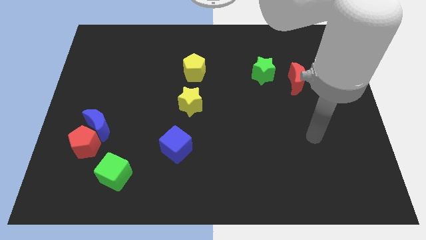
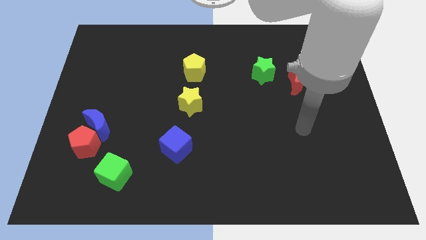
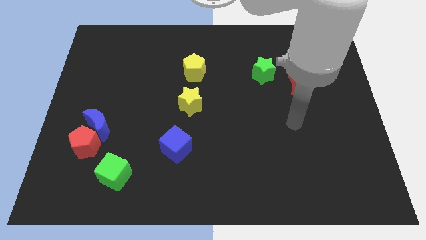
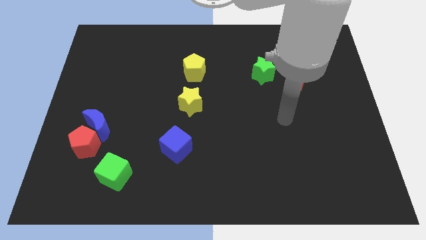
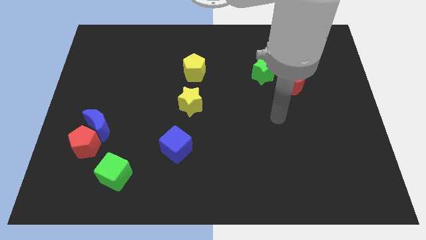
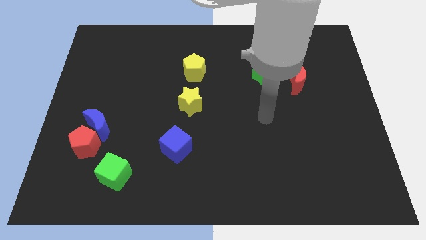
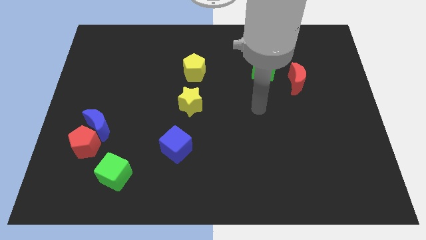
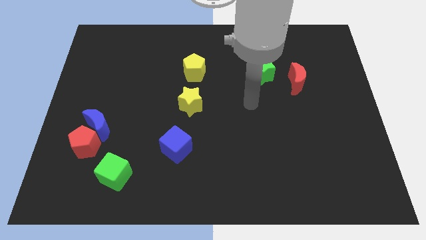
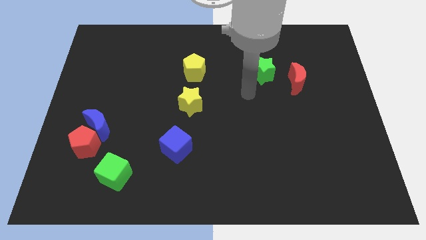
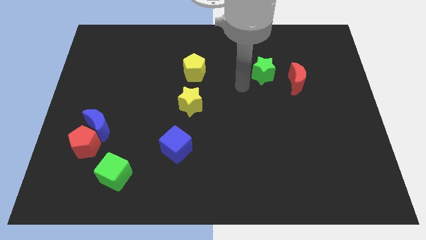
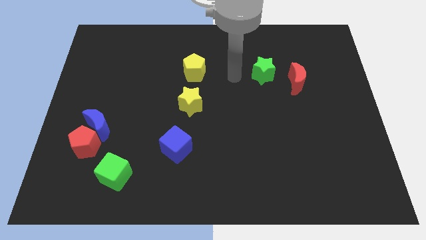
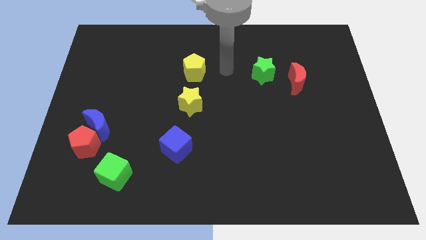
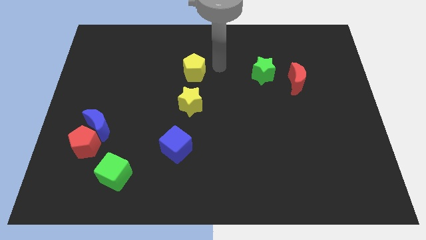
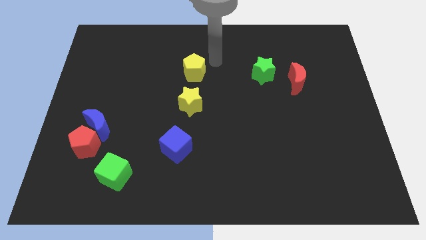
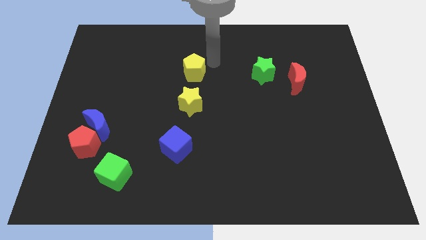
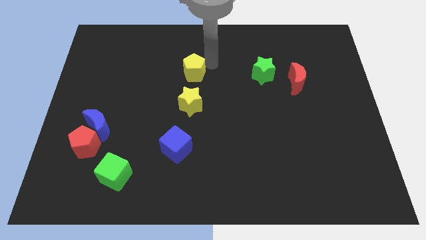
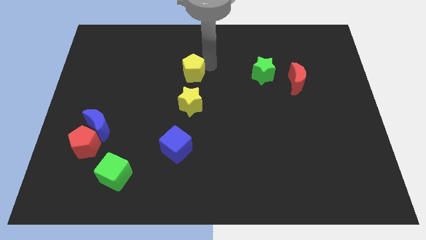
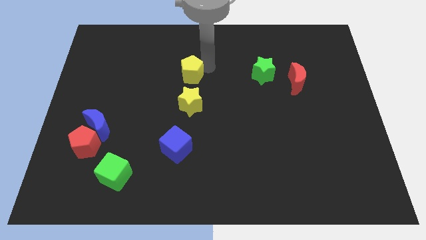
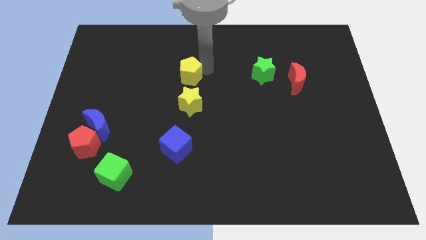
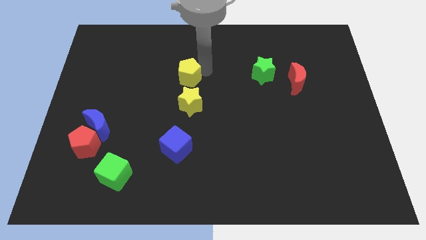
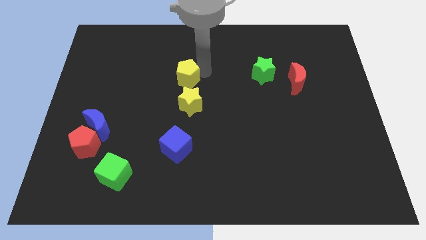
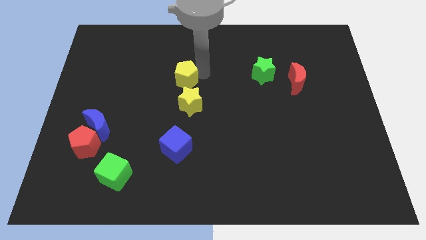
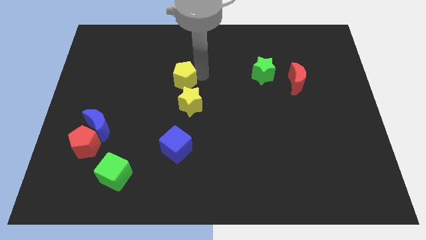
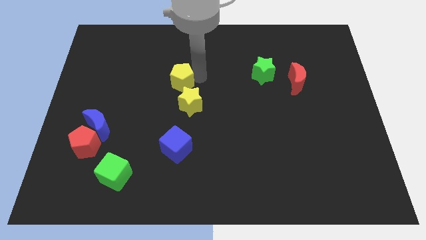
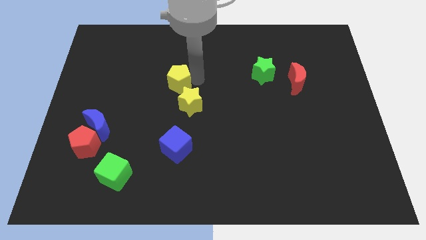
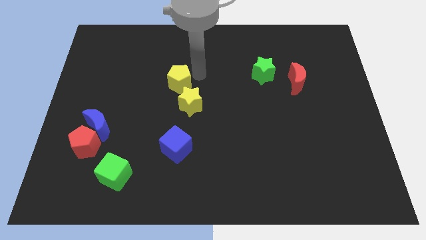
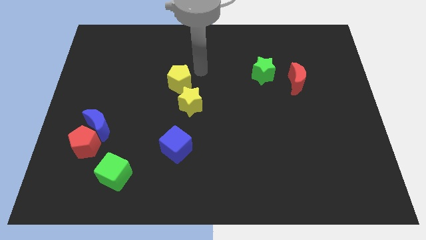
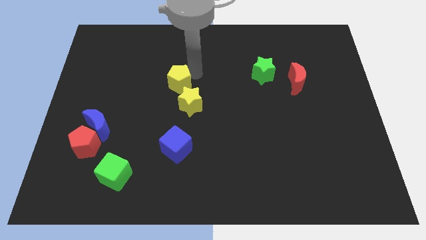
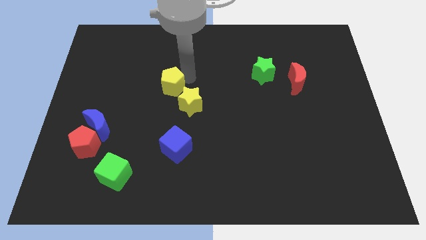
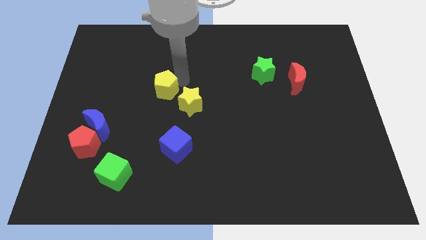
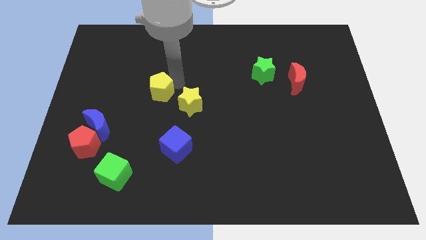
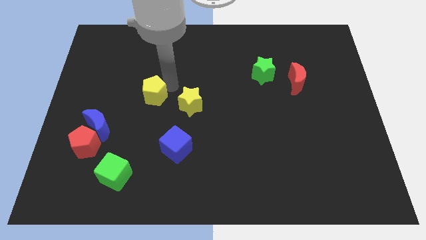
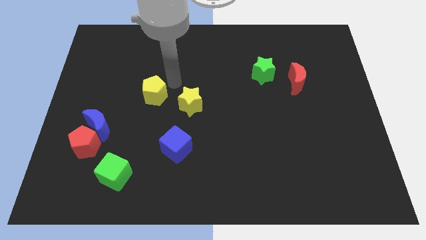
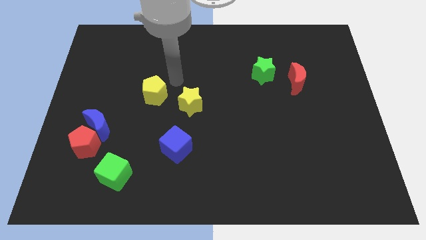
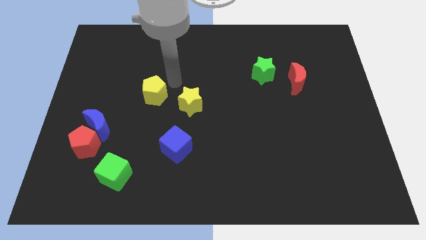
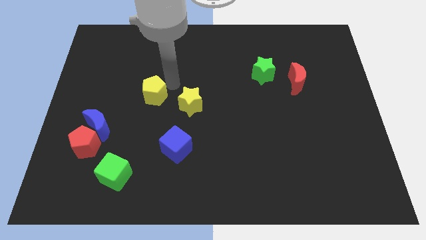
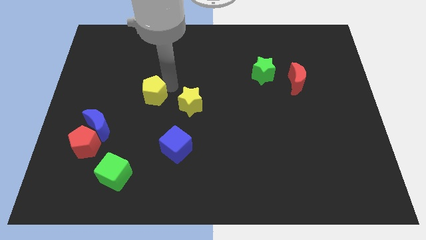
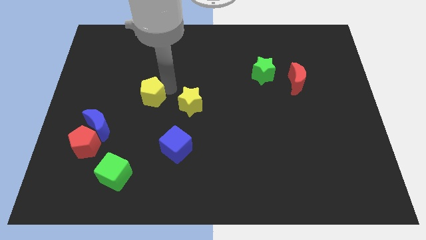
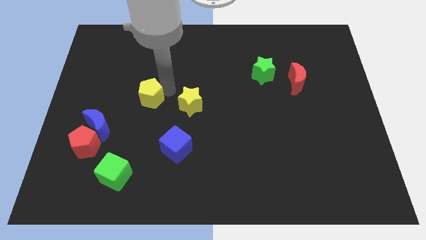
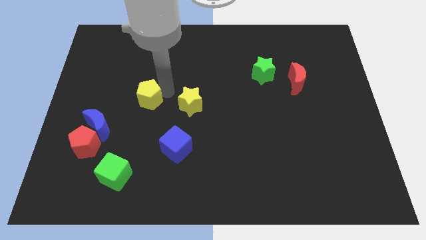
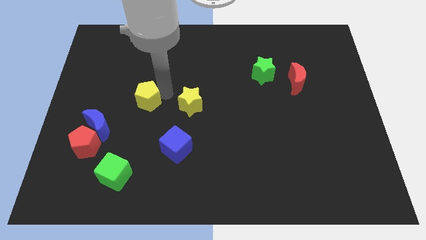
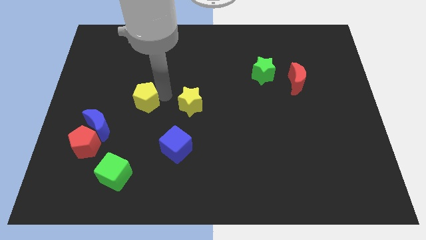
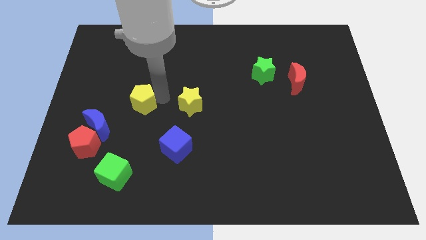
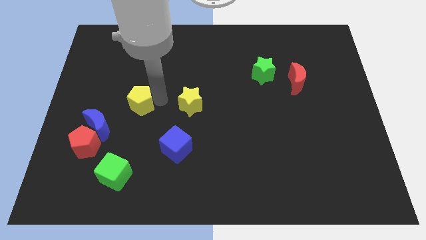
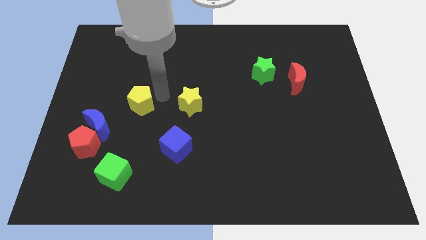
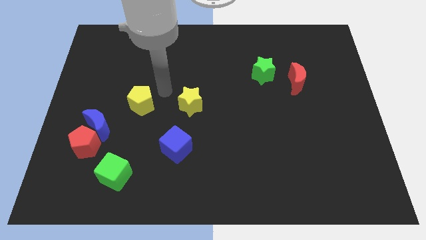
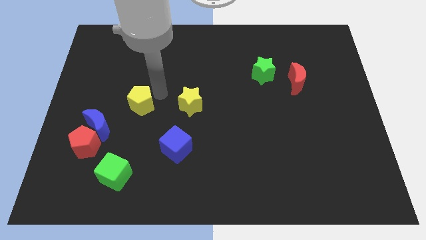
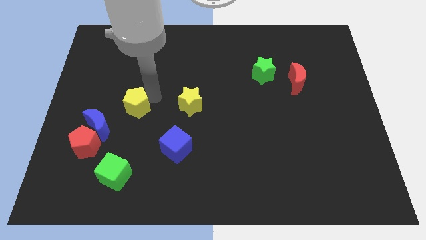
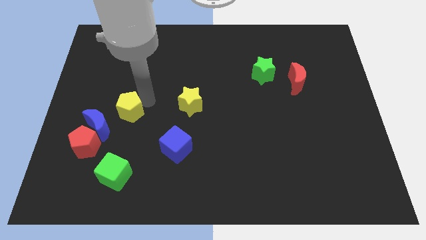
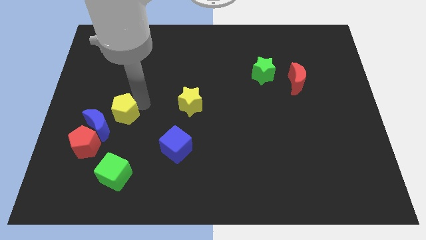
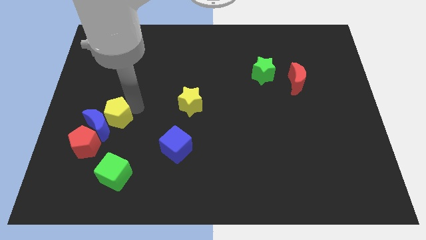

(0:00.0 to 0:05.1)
push the yellow pentagon close to the blue moon

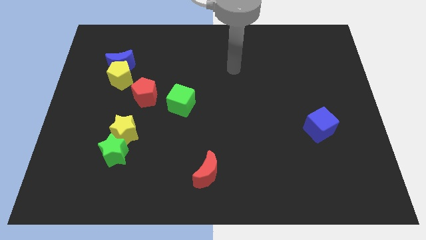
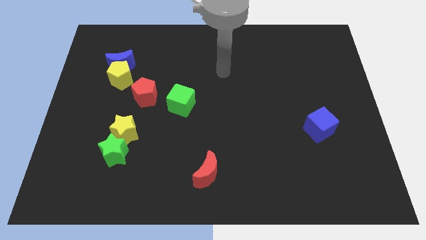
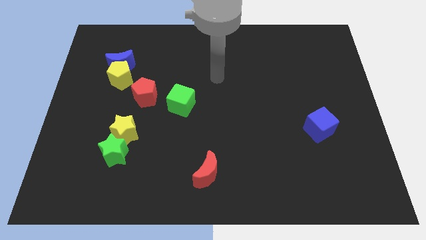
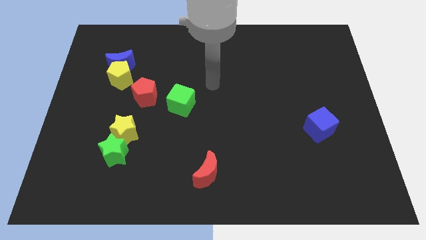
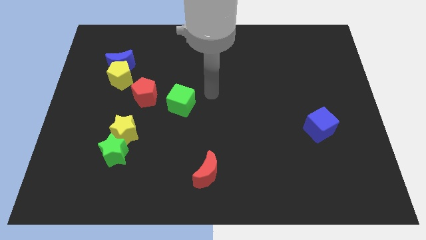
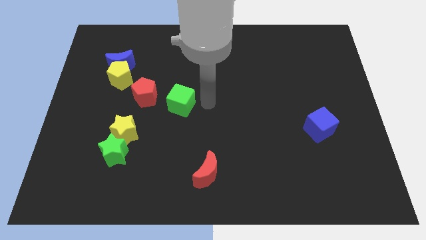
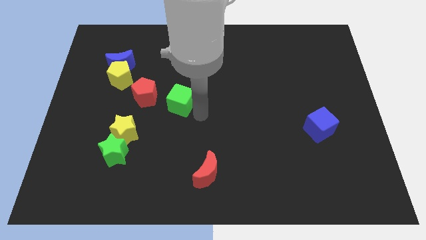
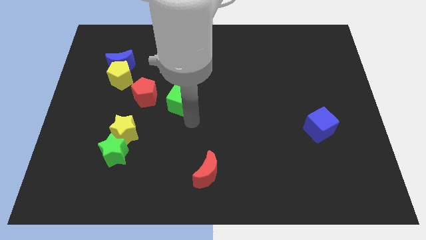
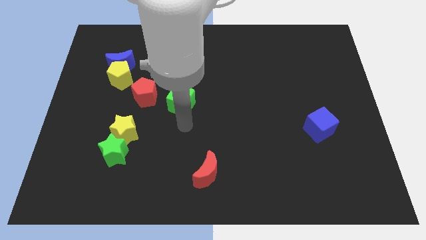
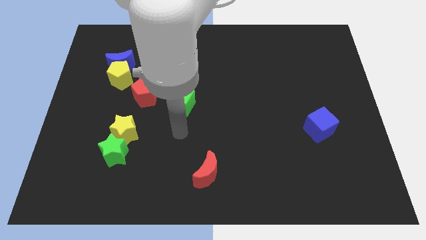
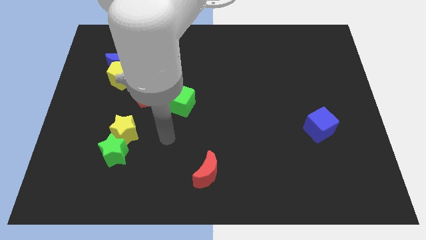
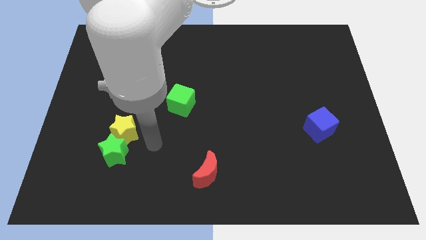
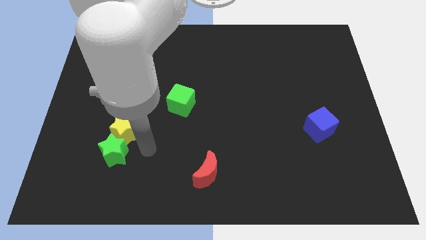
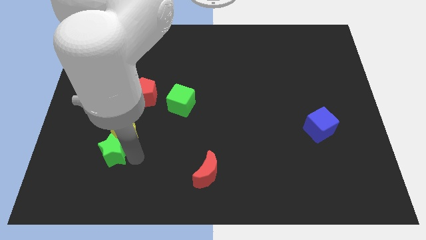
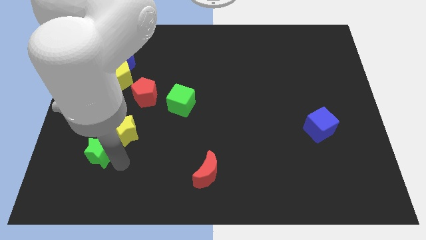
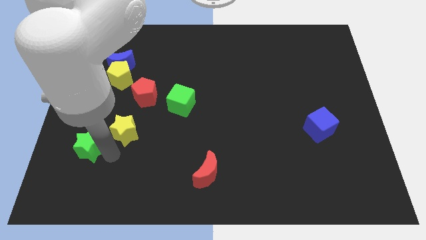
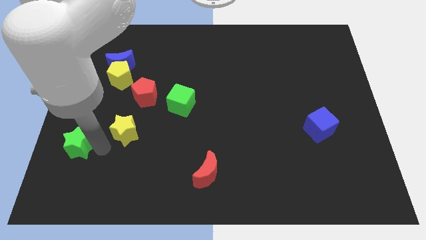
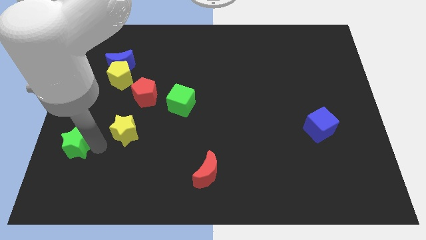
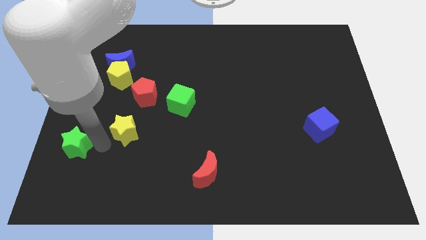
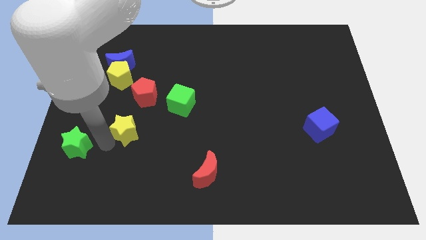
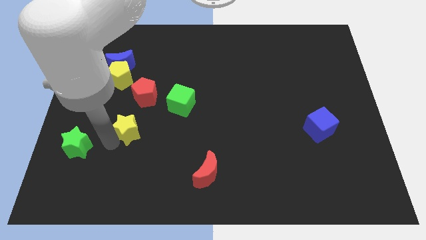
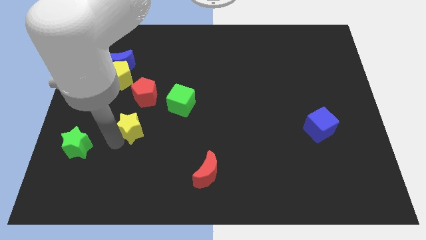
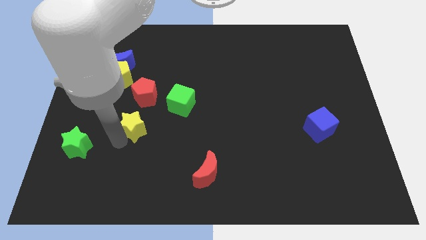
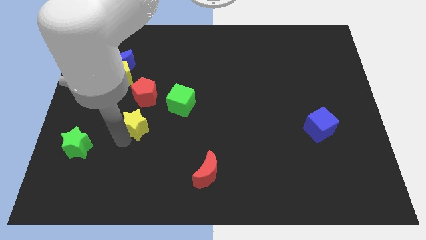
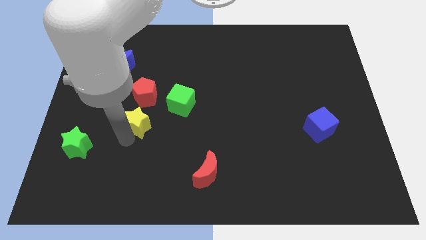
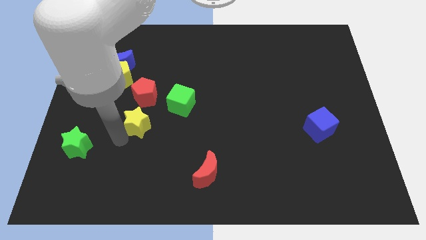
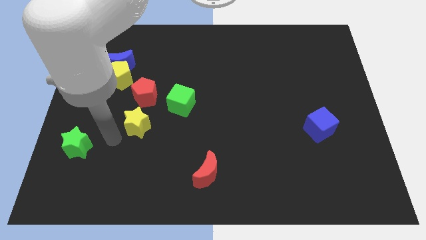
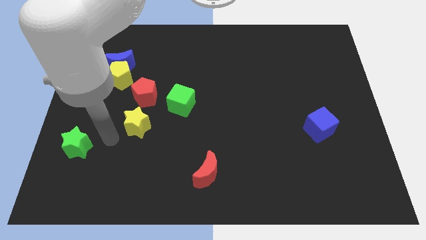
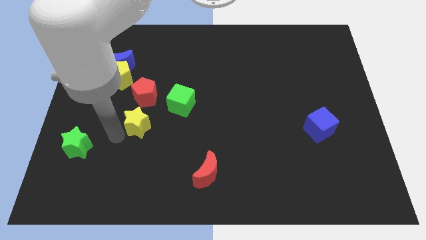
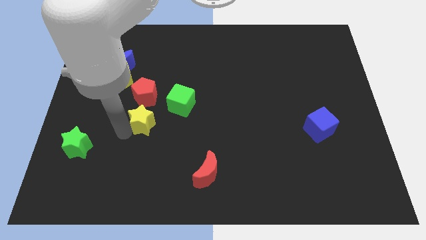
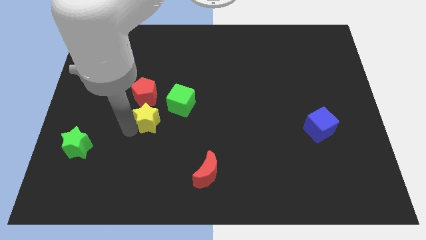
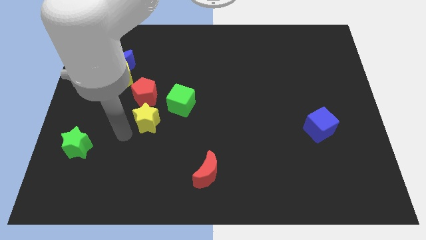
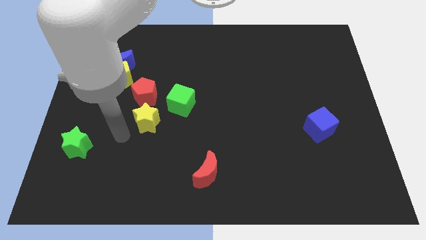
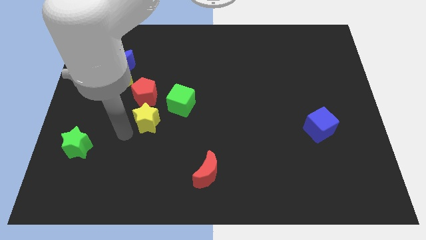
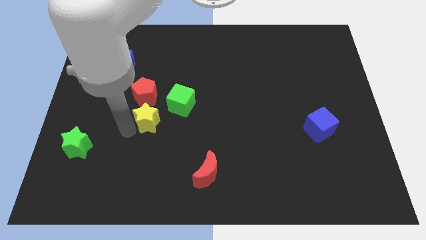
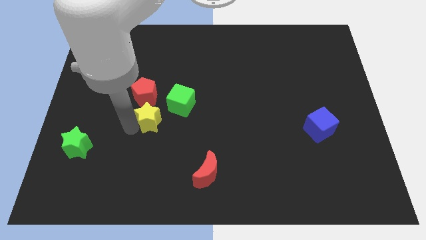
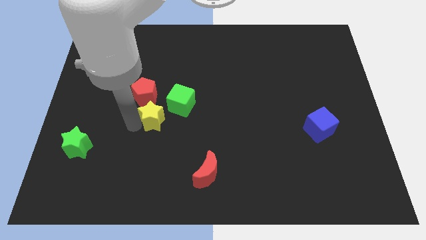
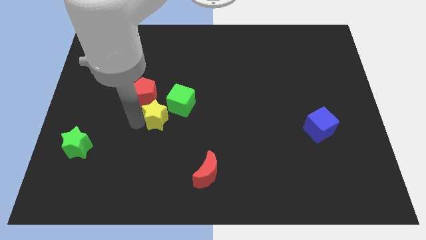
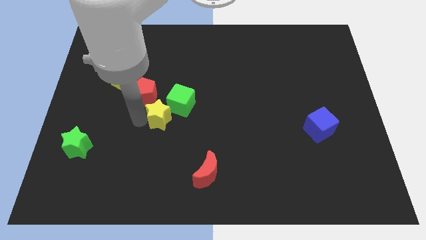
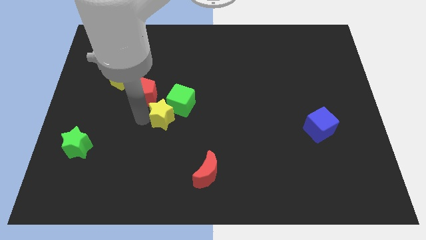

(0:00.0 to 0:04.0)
move the yellow star close to the green cube
